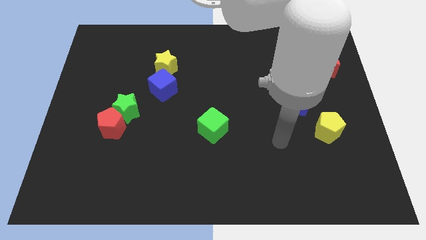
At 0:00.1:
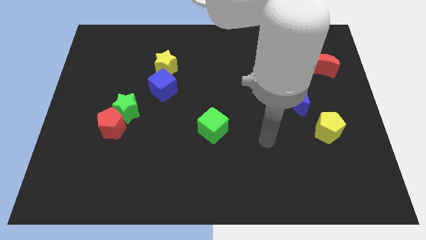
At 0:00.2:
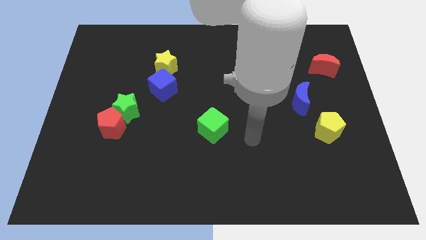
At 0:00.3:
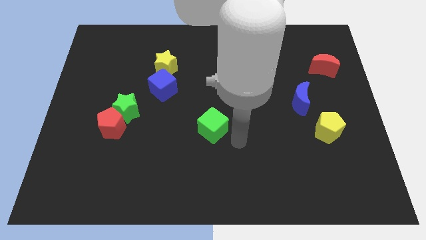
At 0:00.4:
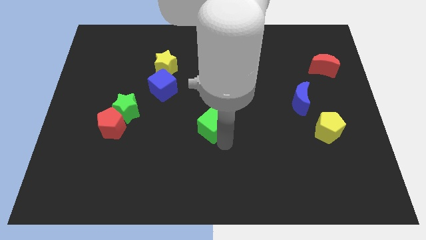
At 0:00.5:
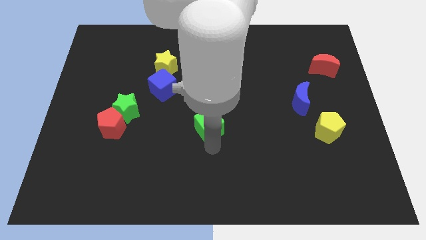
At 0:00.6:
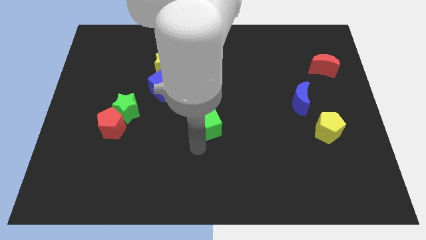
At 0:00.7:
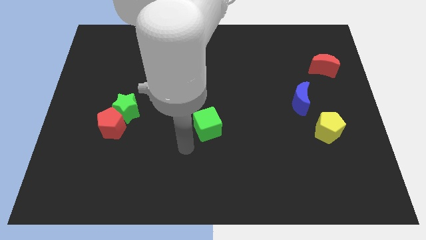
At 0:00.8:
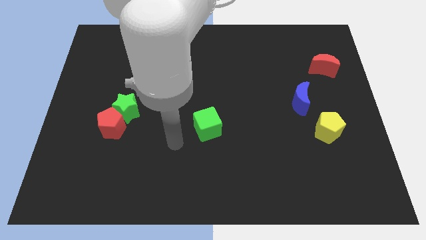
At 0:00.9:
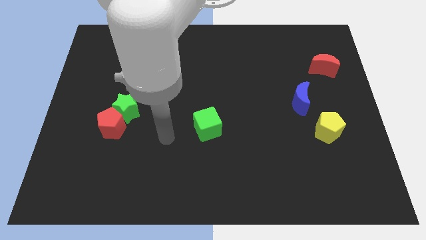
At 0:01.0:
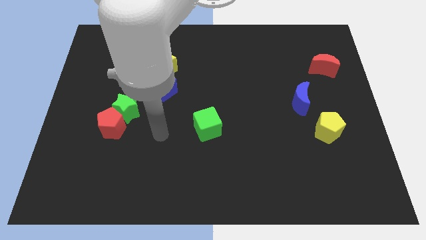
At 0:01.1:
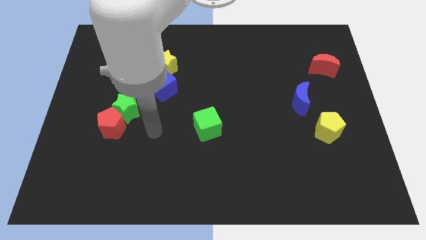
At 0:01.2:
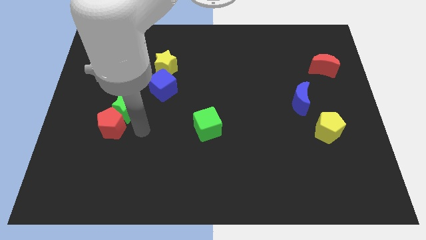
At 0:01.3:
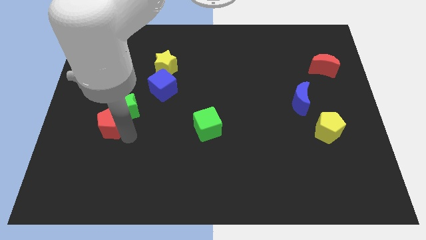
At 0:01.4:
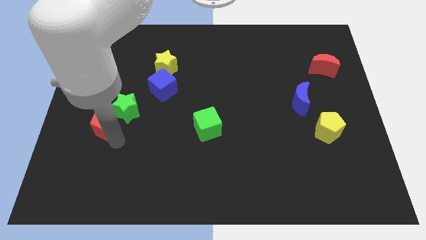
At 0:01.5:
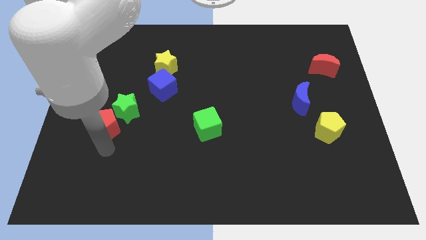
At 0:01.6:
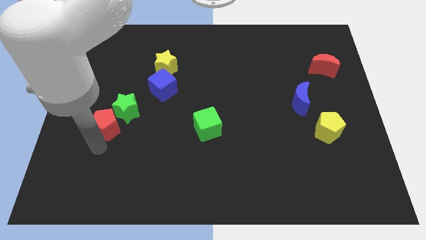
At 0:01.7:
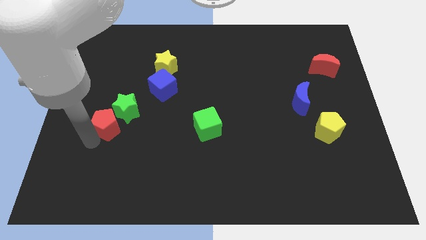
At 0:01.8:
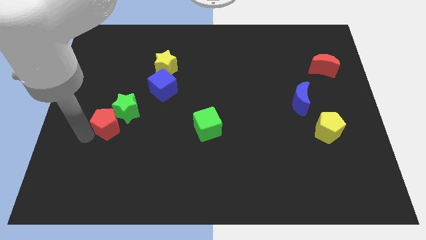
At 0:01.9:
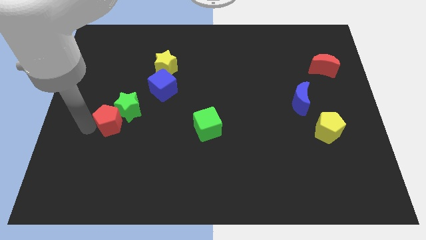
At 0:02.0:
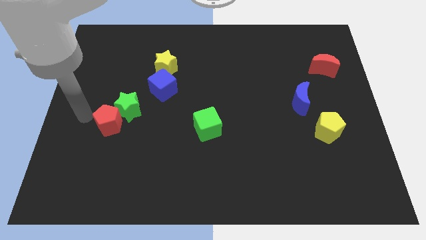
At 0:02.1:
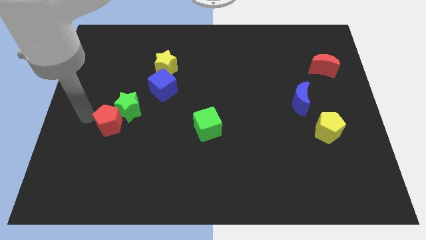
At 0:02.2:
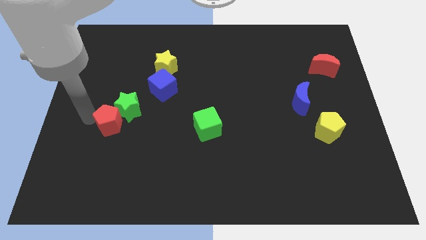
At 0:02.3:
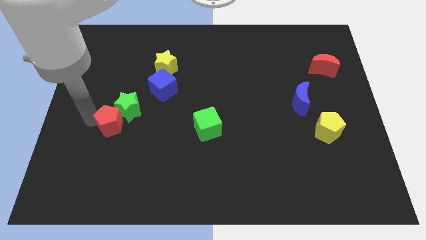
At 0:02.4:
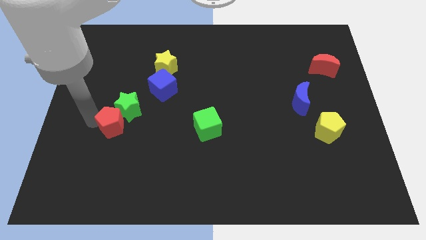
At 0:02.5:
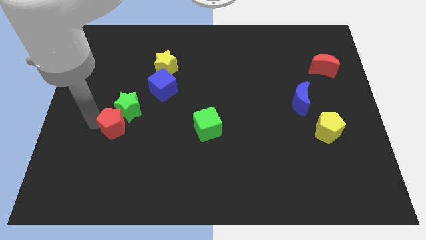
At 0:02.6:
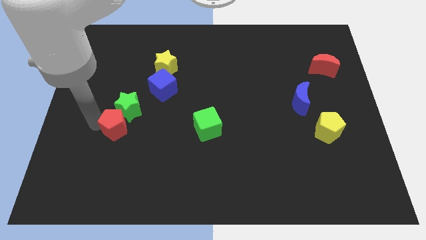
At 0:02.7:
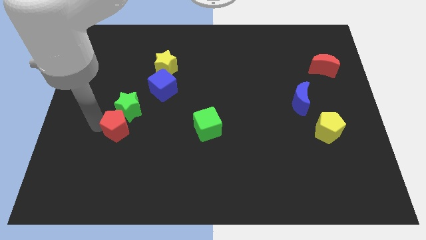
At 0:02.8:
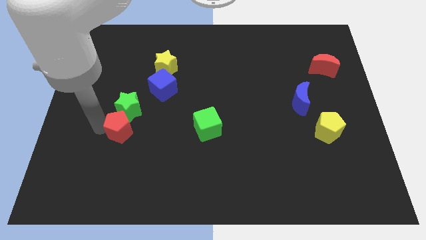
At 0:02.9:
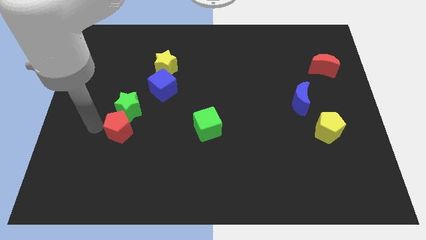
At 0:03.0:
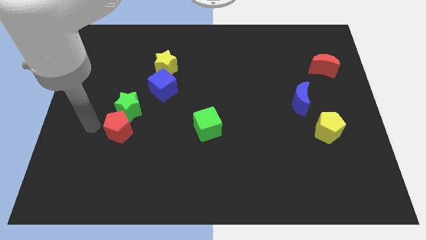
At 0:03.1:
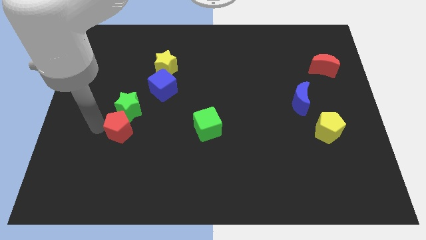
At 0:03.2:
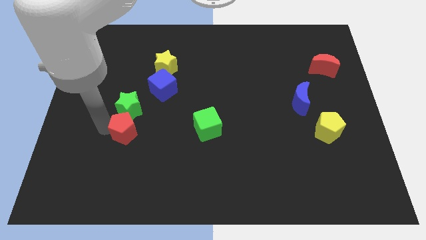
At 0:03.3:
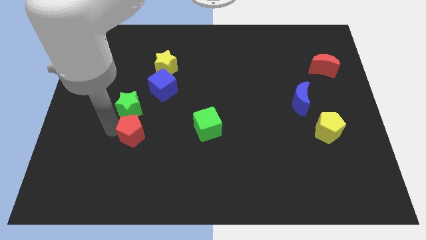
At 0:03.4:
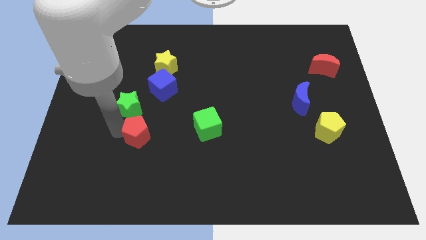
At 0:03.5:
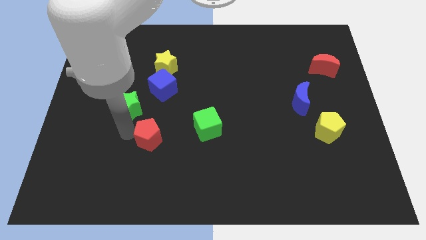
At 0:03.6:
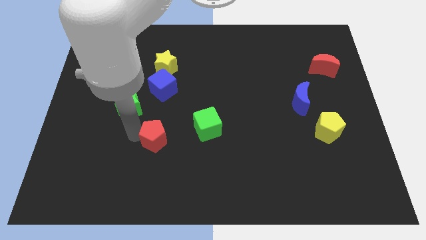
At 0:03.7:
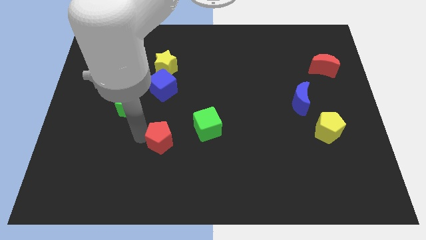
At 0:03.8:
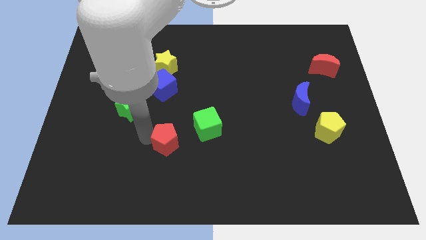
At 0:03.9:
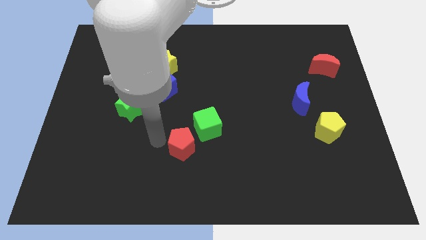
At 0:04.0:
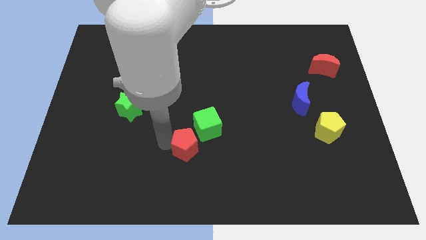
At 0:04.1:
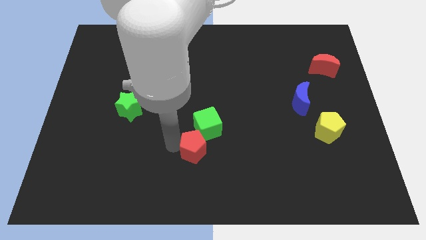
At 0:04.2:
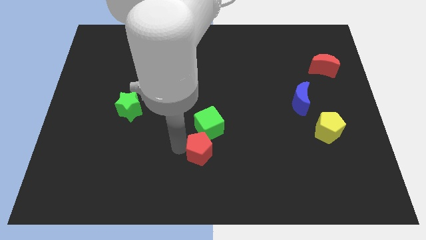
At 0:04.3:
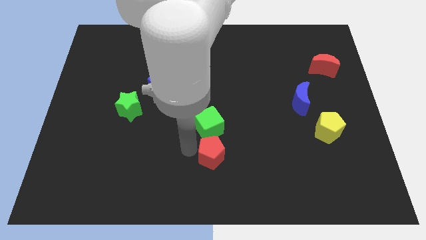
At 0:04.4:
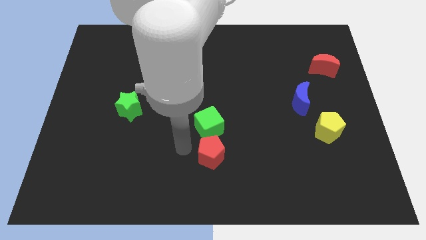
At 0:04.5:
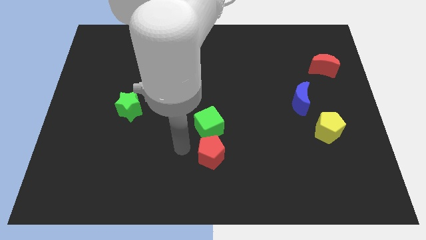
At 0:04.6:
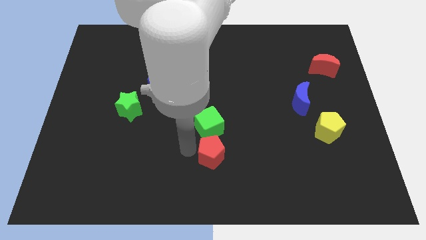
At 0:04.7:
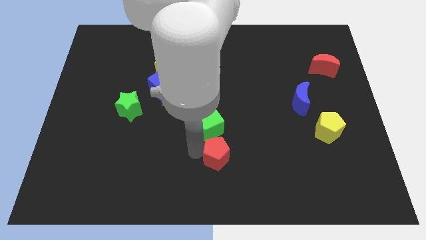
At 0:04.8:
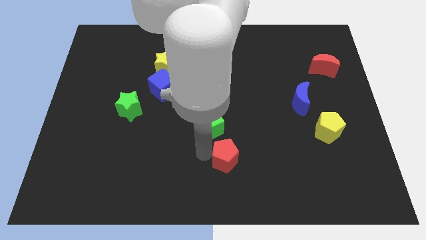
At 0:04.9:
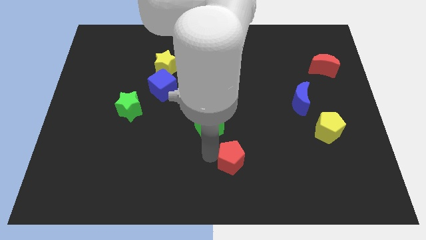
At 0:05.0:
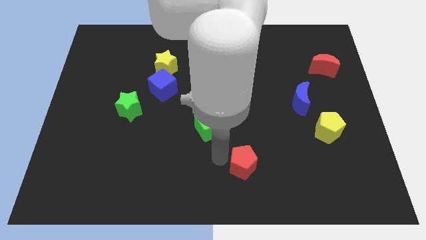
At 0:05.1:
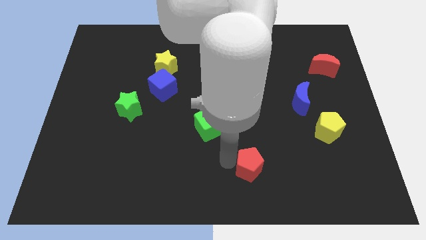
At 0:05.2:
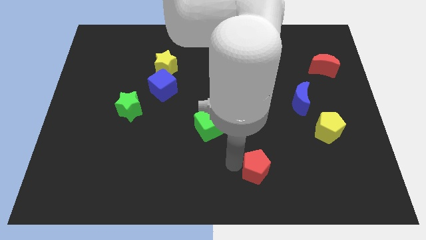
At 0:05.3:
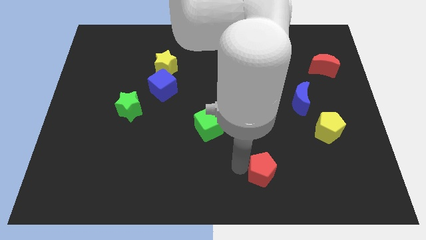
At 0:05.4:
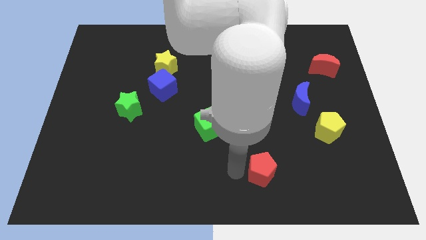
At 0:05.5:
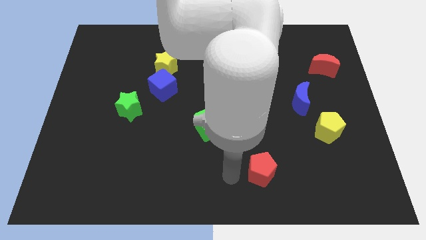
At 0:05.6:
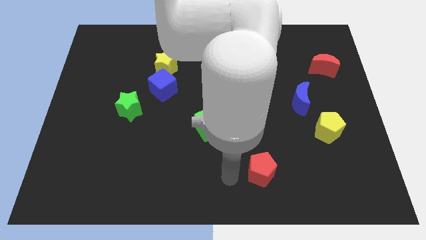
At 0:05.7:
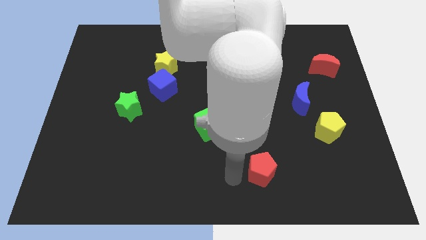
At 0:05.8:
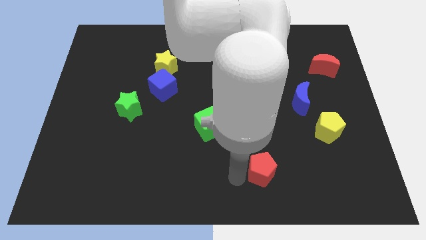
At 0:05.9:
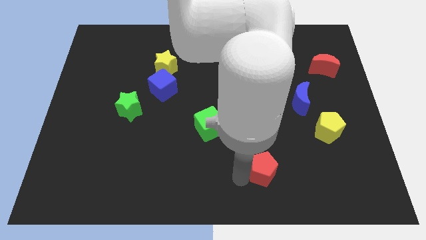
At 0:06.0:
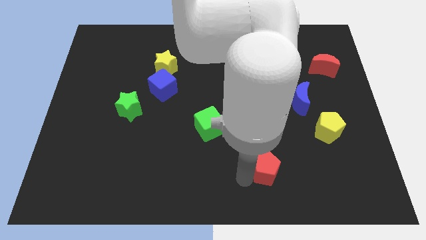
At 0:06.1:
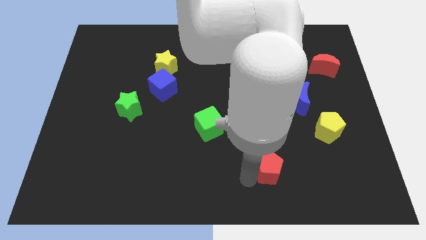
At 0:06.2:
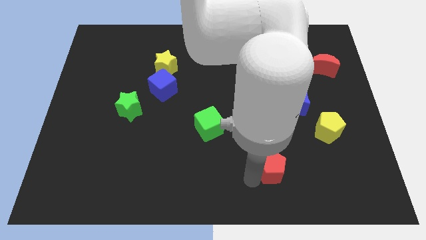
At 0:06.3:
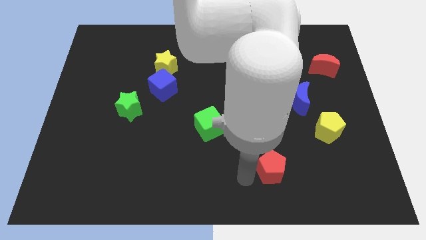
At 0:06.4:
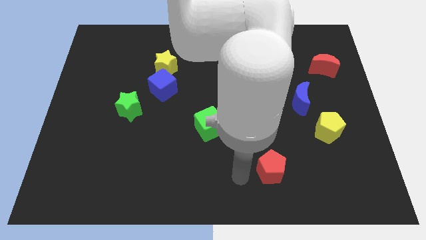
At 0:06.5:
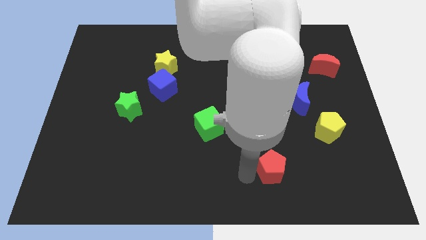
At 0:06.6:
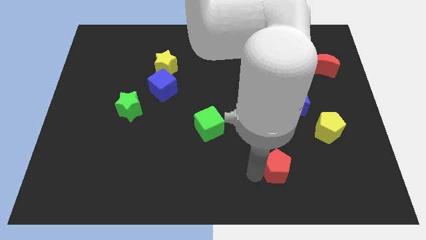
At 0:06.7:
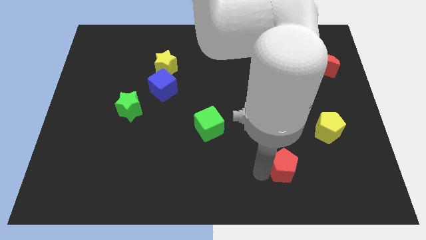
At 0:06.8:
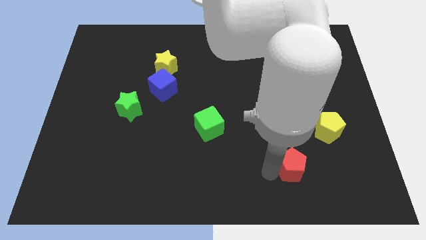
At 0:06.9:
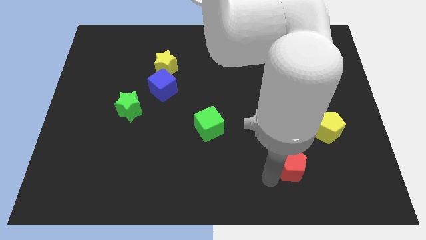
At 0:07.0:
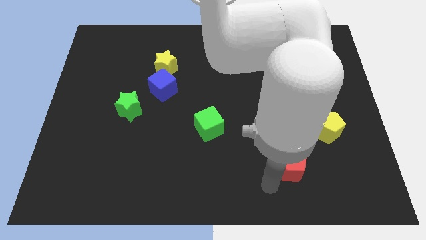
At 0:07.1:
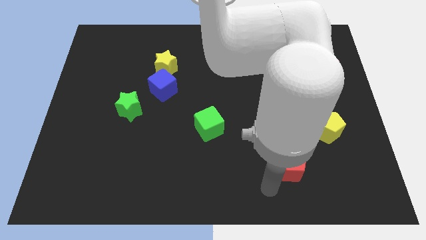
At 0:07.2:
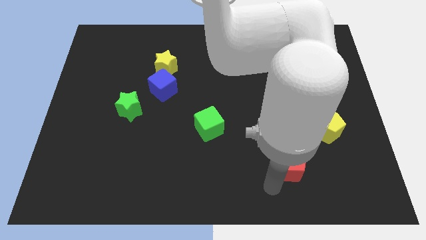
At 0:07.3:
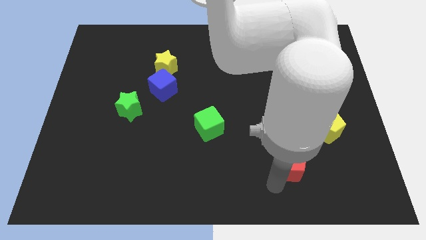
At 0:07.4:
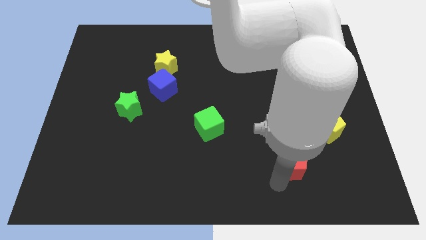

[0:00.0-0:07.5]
push the red pentagon diagonally down and to the left of the yellow pentagon
